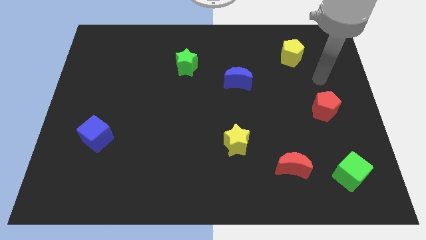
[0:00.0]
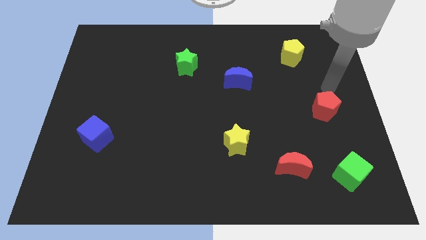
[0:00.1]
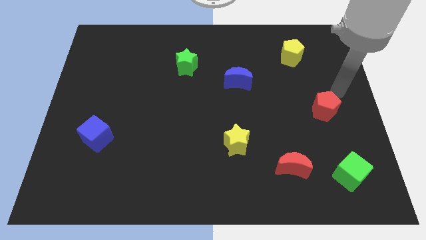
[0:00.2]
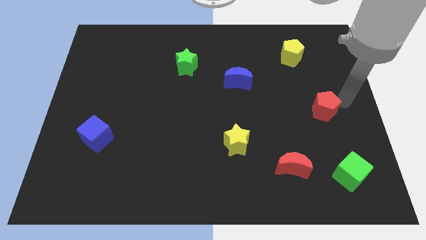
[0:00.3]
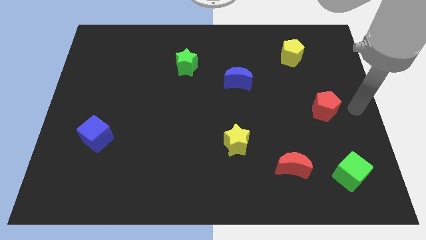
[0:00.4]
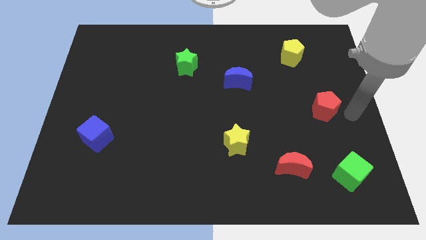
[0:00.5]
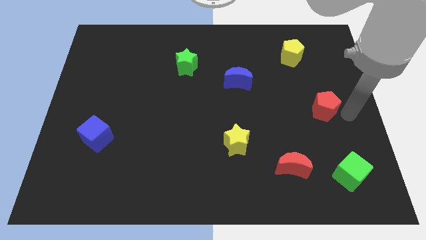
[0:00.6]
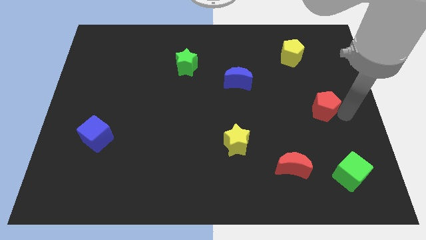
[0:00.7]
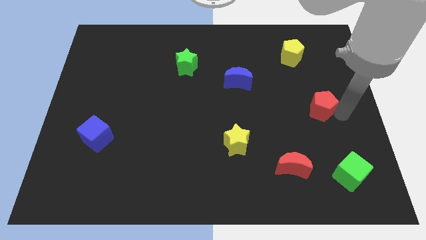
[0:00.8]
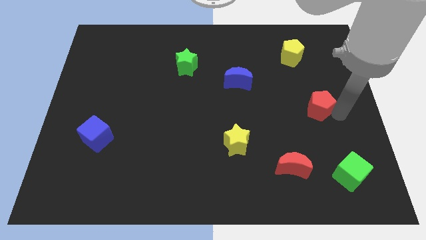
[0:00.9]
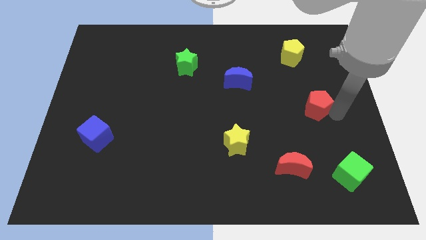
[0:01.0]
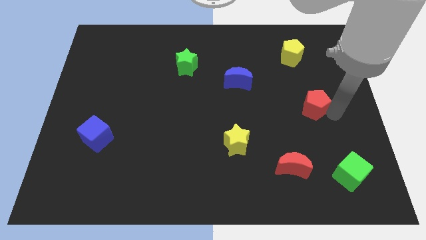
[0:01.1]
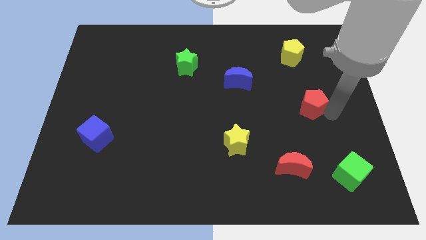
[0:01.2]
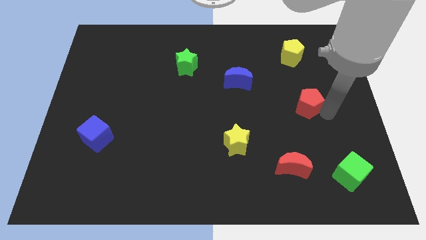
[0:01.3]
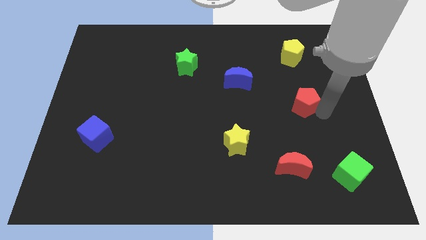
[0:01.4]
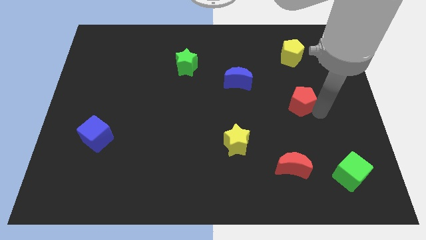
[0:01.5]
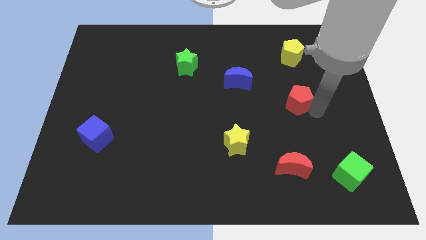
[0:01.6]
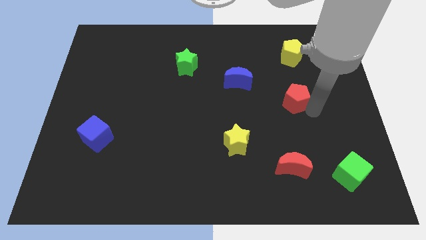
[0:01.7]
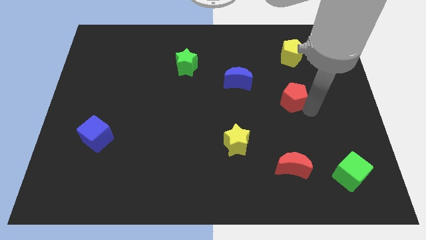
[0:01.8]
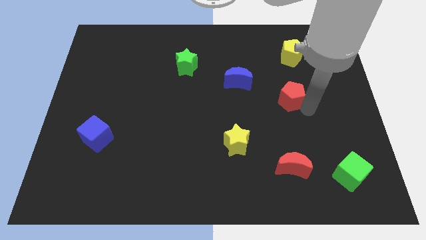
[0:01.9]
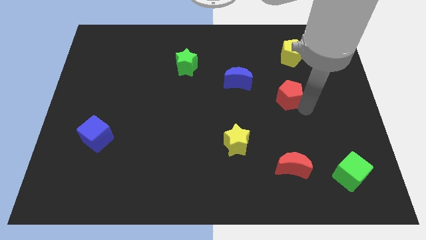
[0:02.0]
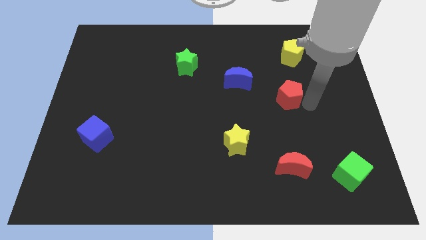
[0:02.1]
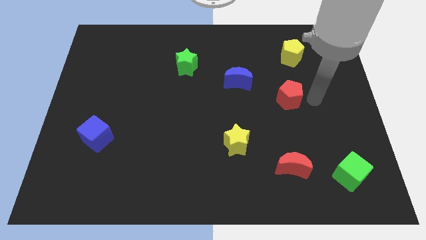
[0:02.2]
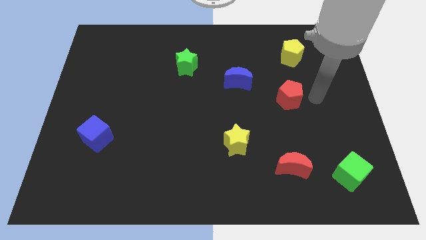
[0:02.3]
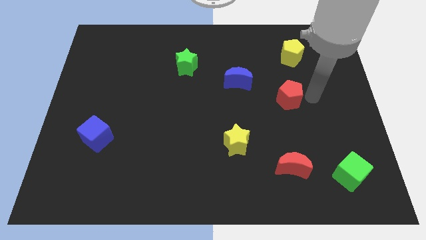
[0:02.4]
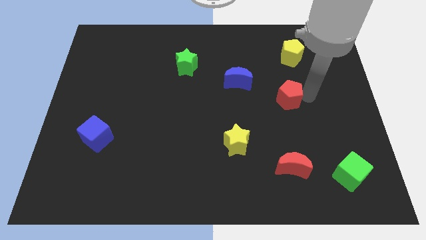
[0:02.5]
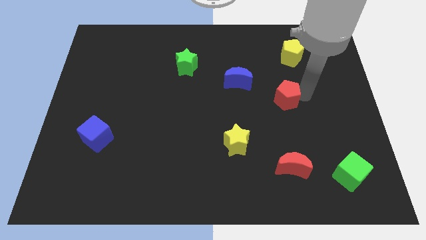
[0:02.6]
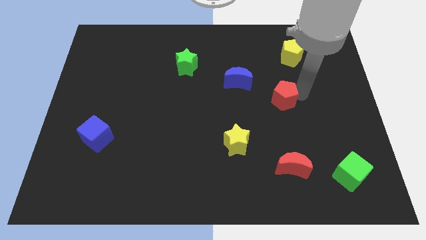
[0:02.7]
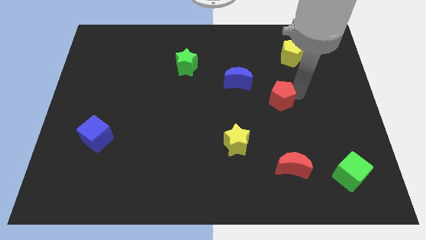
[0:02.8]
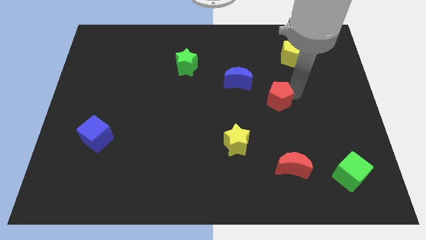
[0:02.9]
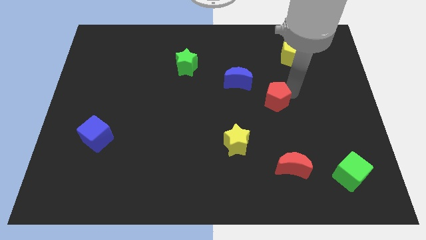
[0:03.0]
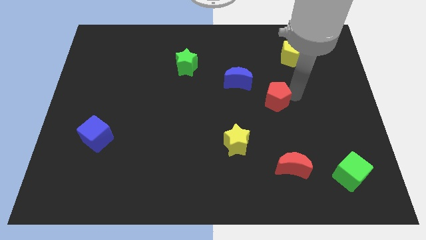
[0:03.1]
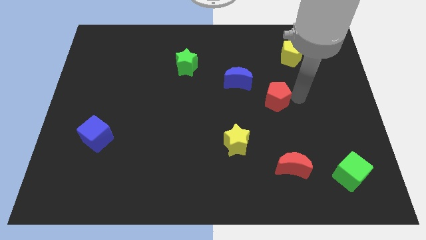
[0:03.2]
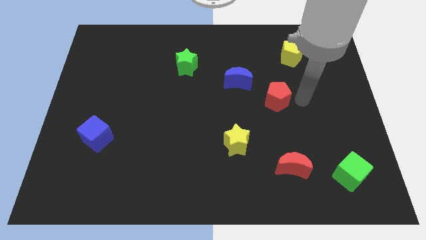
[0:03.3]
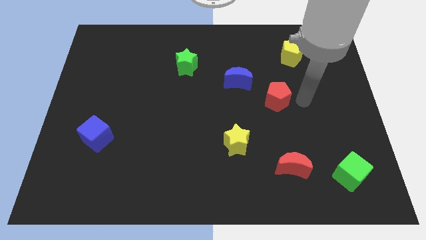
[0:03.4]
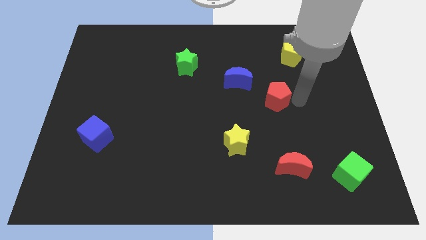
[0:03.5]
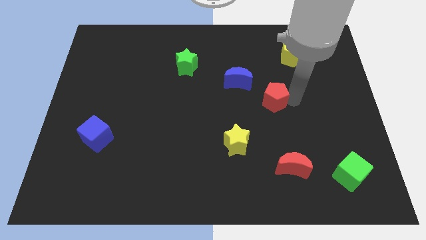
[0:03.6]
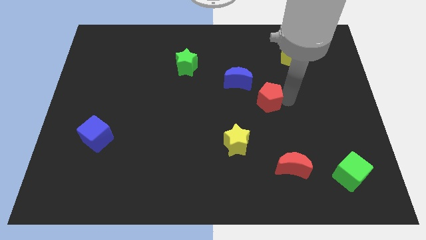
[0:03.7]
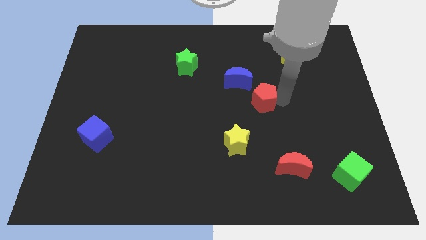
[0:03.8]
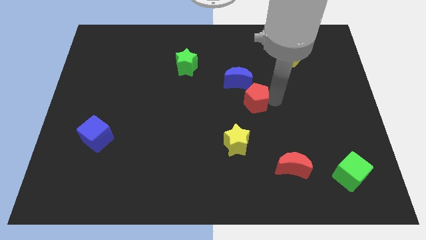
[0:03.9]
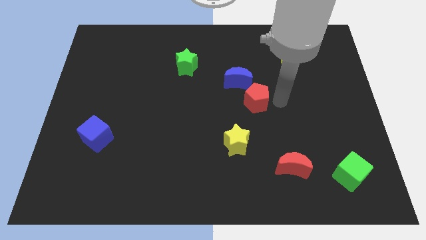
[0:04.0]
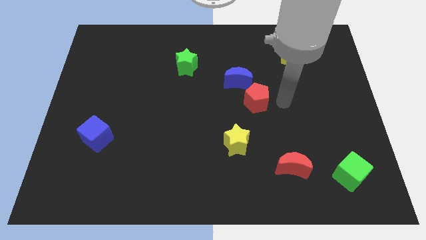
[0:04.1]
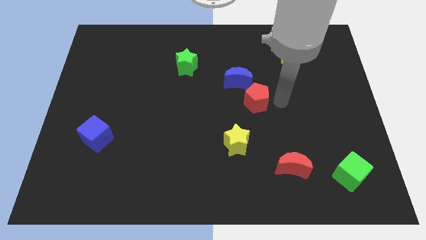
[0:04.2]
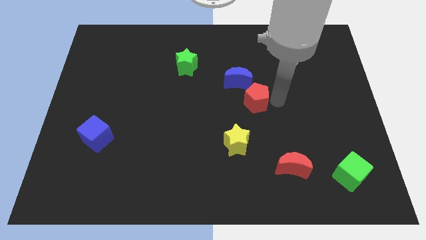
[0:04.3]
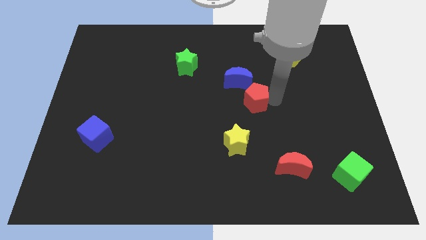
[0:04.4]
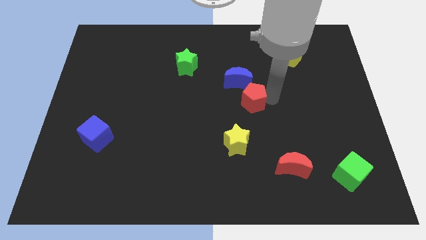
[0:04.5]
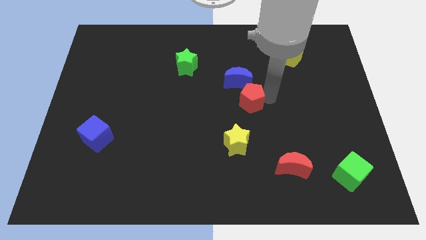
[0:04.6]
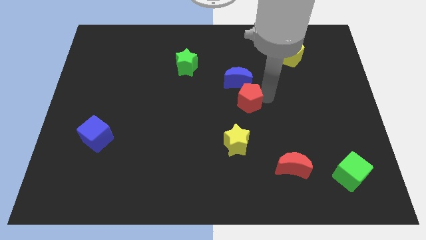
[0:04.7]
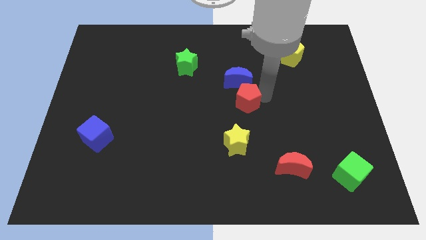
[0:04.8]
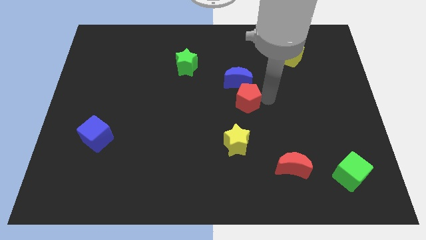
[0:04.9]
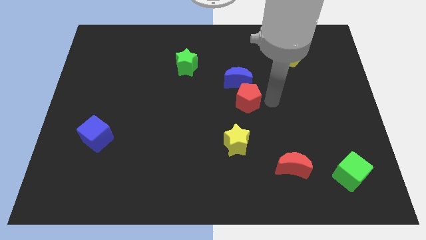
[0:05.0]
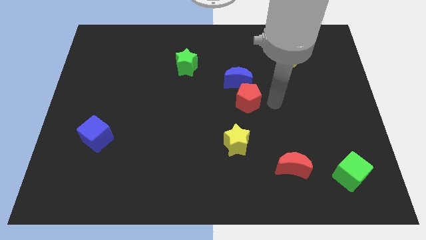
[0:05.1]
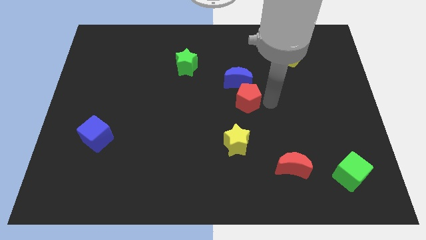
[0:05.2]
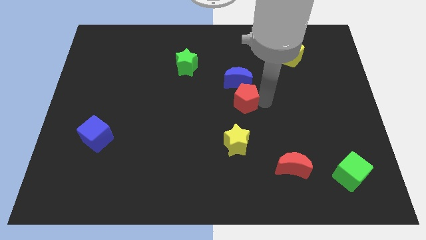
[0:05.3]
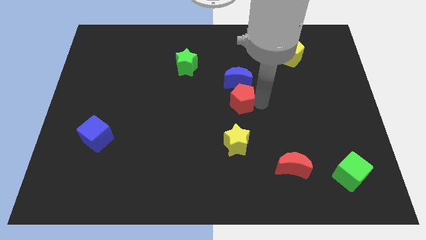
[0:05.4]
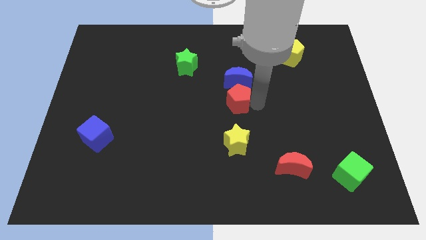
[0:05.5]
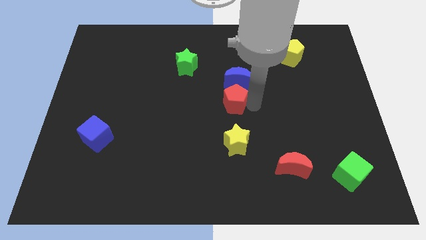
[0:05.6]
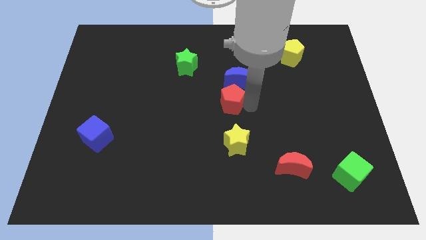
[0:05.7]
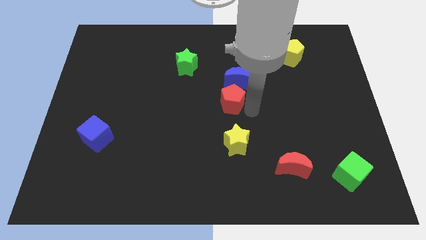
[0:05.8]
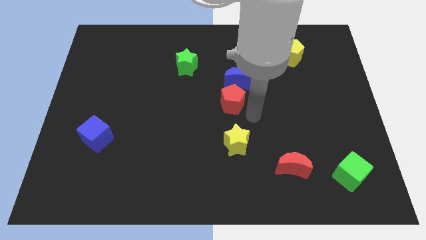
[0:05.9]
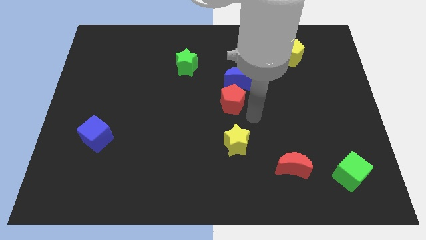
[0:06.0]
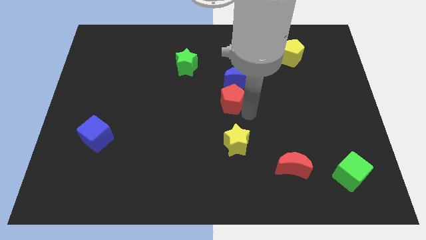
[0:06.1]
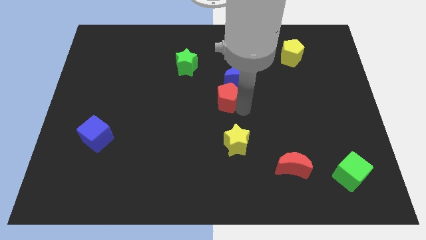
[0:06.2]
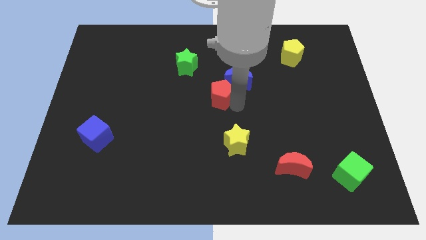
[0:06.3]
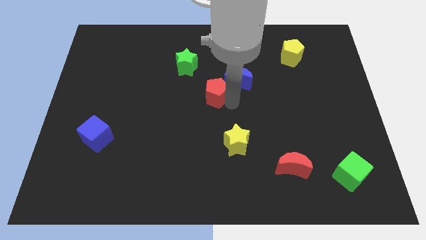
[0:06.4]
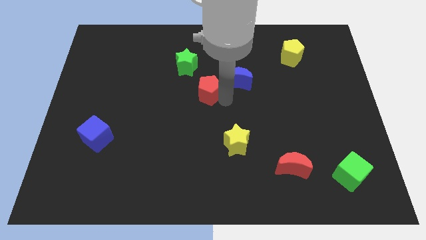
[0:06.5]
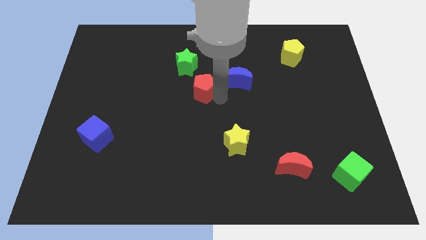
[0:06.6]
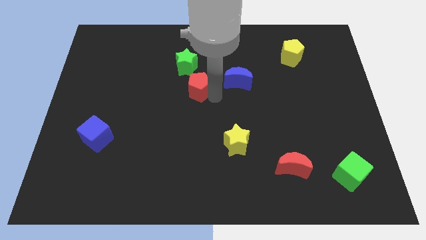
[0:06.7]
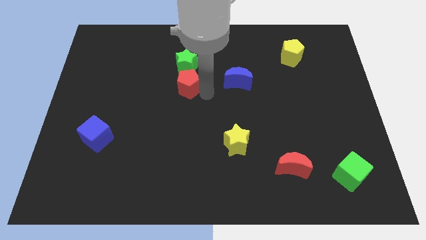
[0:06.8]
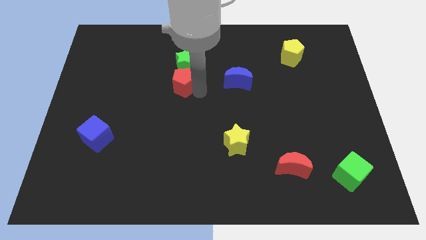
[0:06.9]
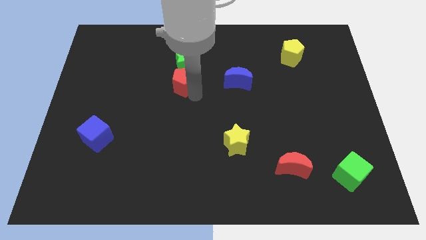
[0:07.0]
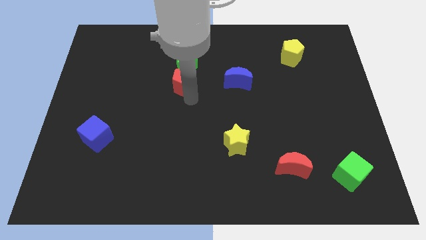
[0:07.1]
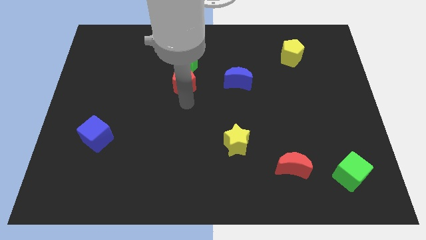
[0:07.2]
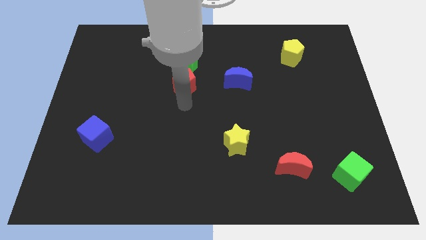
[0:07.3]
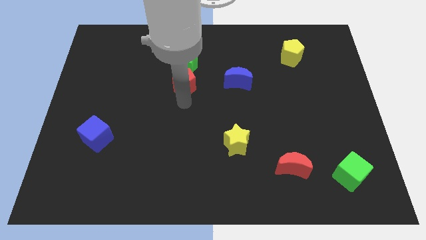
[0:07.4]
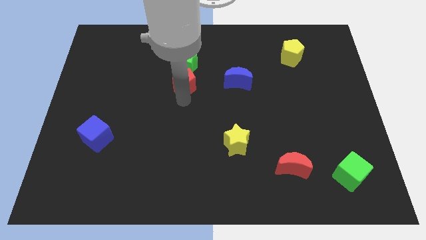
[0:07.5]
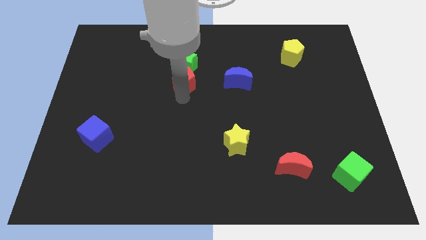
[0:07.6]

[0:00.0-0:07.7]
put the red pentagon close to the green star
